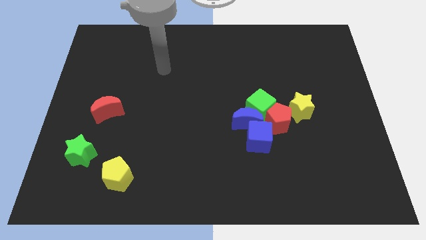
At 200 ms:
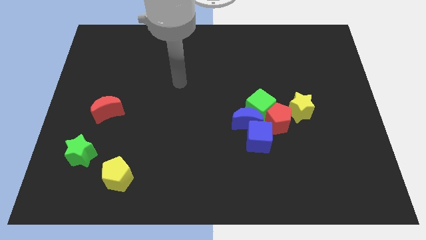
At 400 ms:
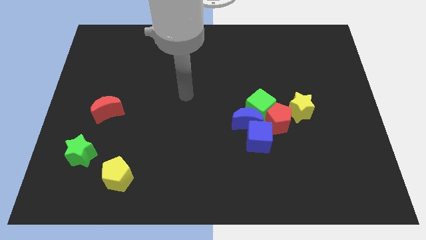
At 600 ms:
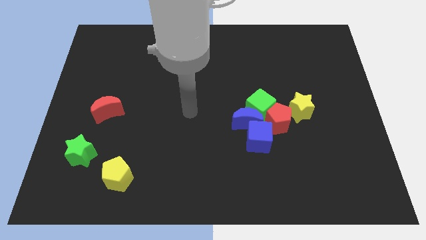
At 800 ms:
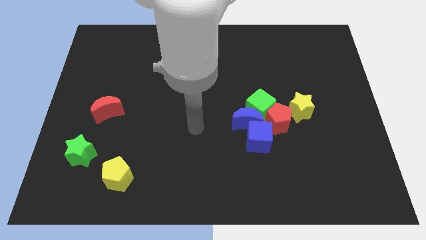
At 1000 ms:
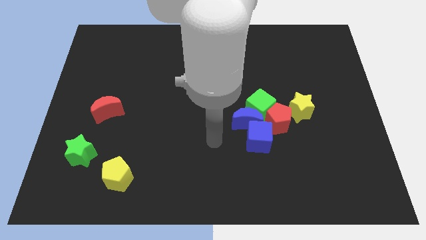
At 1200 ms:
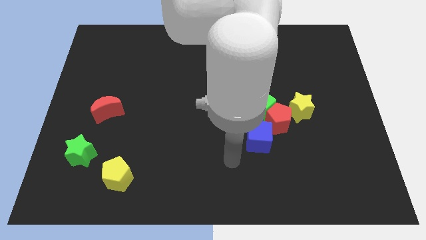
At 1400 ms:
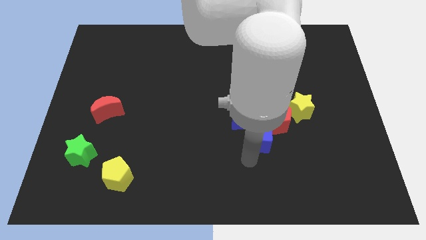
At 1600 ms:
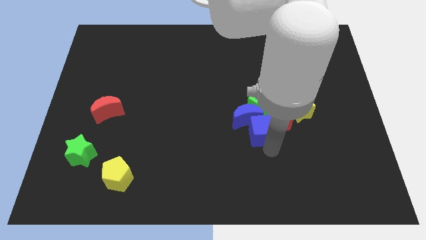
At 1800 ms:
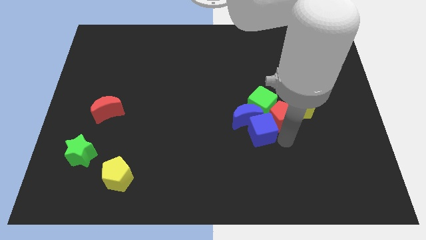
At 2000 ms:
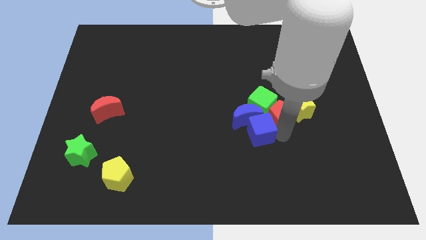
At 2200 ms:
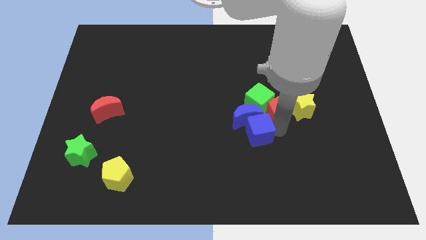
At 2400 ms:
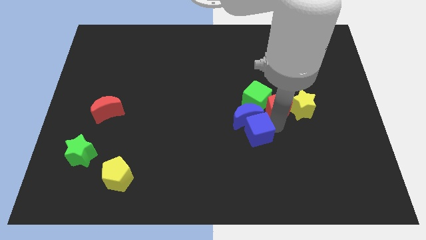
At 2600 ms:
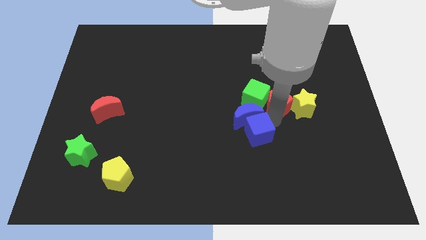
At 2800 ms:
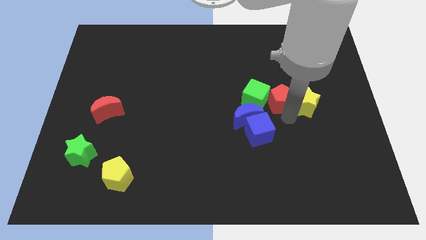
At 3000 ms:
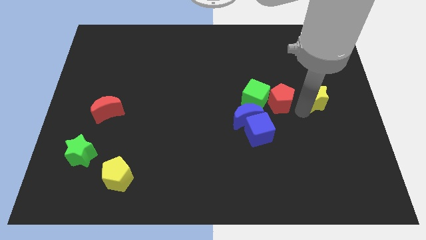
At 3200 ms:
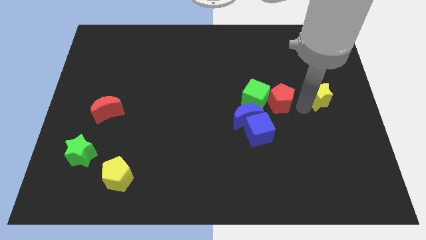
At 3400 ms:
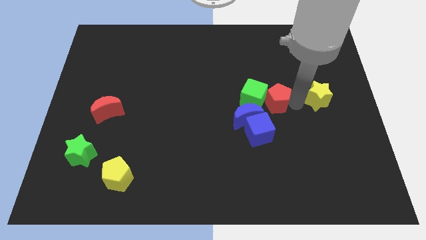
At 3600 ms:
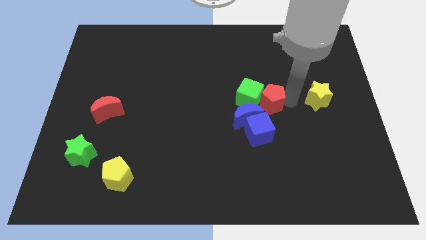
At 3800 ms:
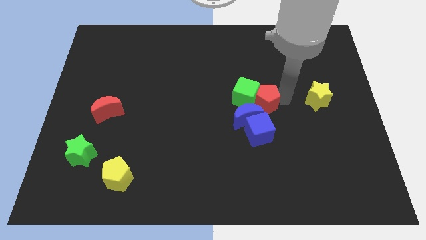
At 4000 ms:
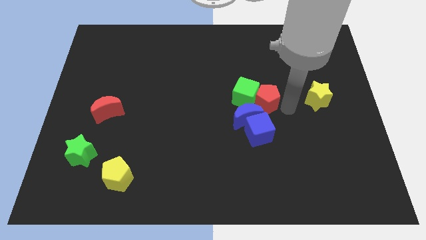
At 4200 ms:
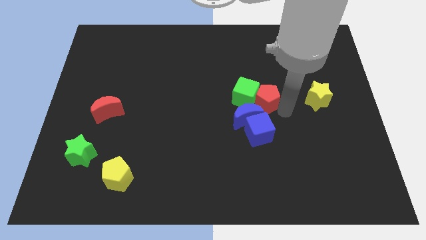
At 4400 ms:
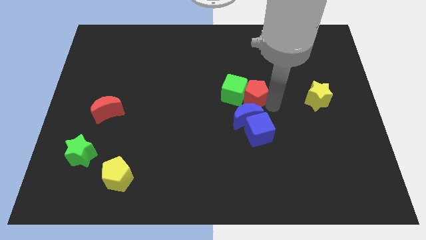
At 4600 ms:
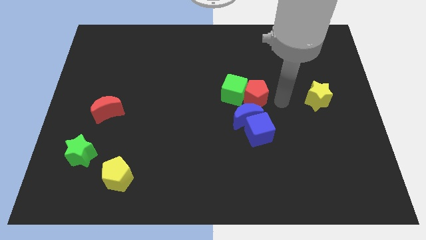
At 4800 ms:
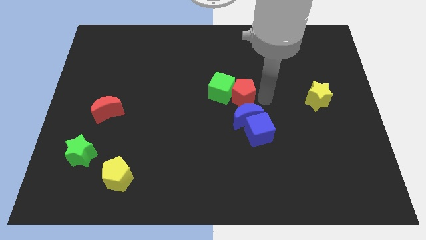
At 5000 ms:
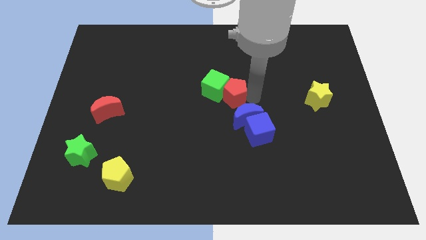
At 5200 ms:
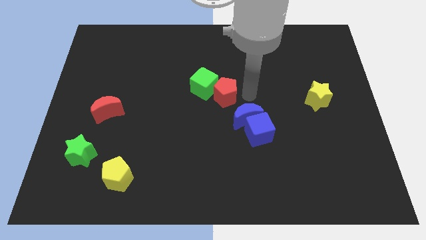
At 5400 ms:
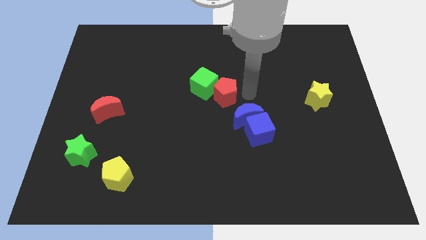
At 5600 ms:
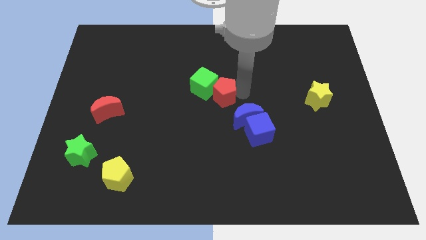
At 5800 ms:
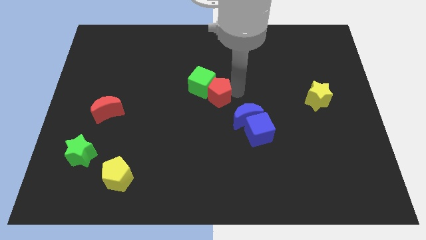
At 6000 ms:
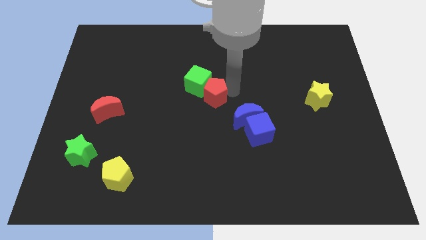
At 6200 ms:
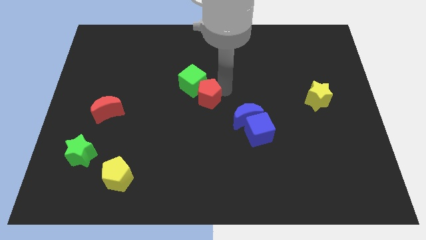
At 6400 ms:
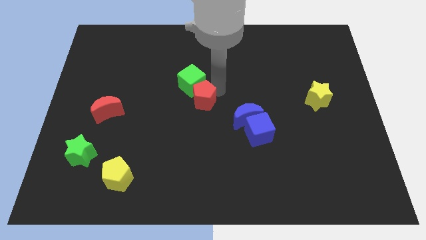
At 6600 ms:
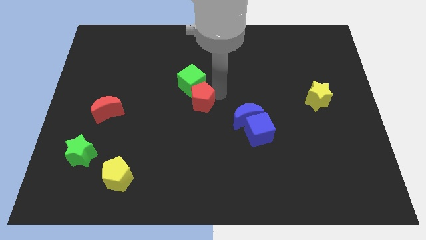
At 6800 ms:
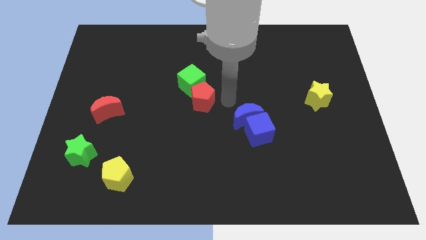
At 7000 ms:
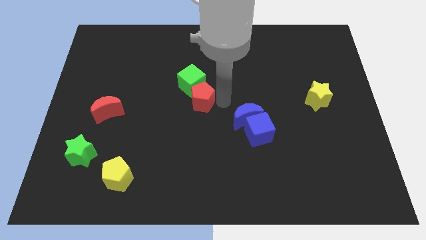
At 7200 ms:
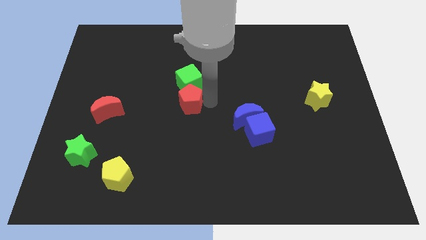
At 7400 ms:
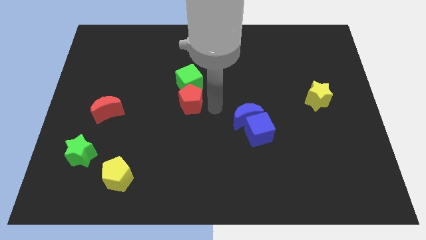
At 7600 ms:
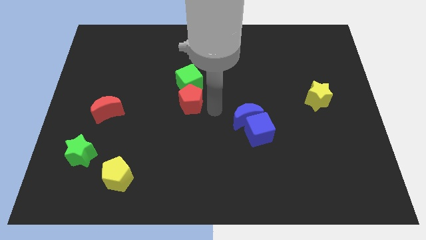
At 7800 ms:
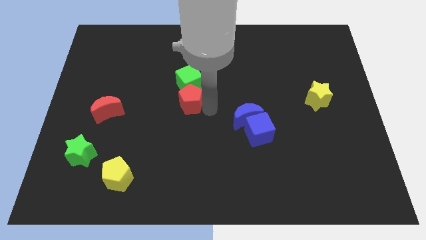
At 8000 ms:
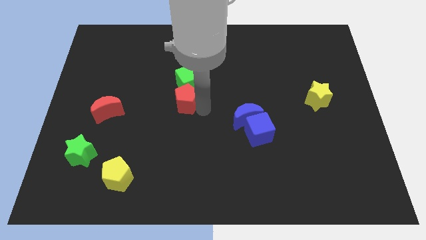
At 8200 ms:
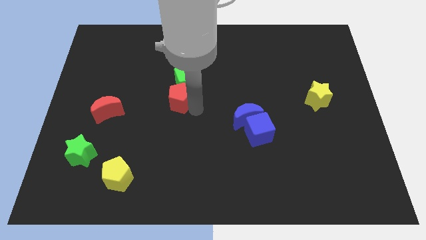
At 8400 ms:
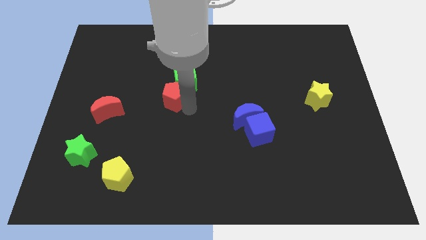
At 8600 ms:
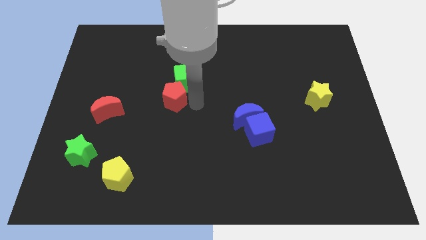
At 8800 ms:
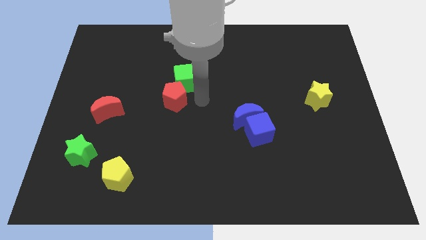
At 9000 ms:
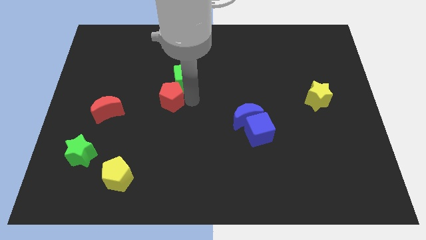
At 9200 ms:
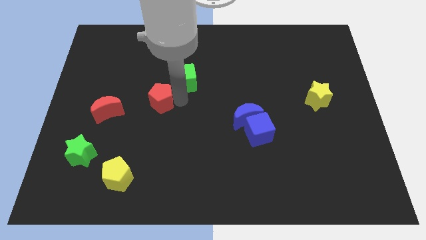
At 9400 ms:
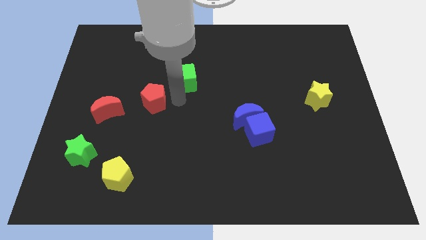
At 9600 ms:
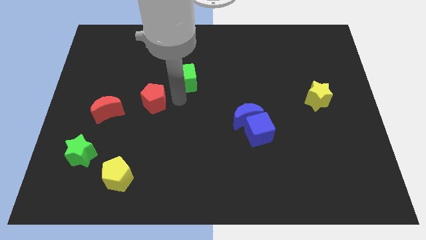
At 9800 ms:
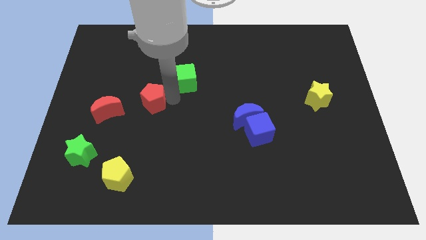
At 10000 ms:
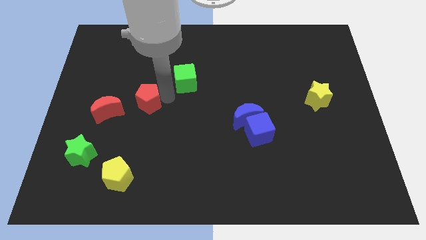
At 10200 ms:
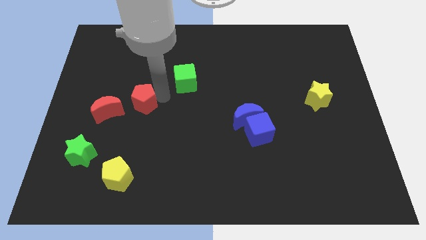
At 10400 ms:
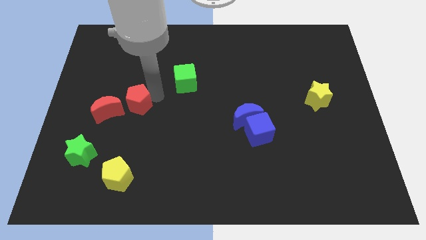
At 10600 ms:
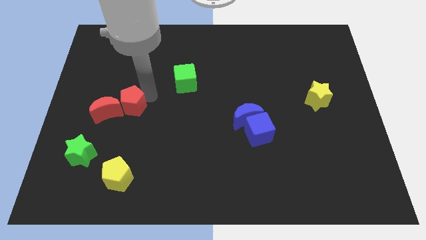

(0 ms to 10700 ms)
slide the red pentagon next to the red moon

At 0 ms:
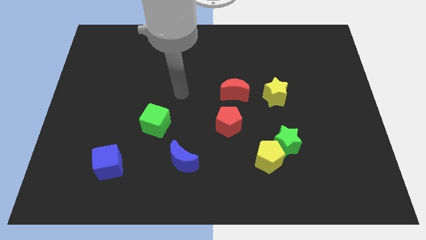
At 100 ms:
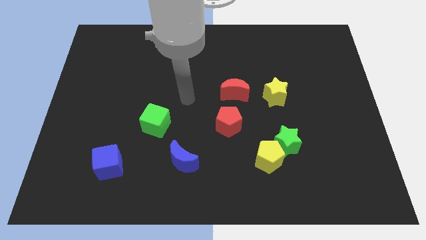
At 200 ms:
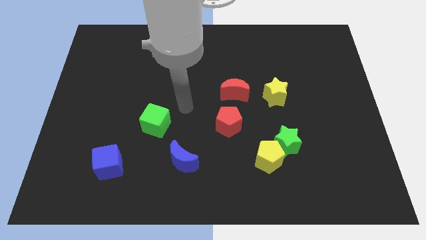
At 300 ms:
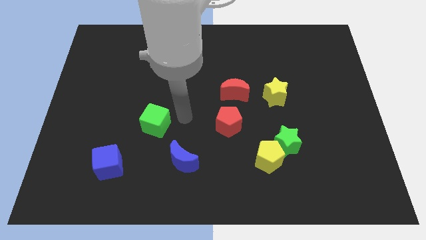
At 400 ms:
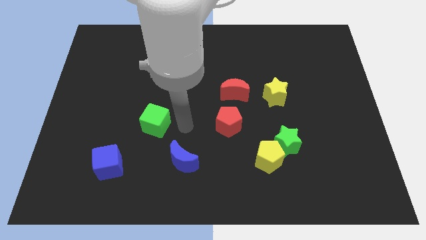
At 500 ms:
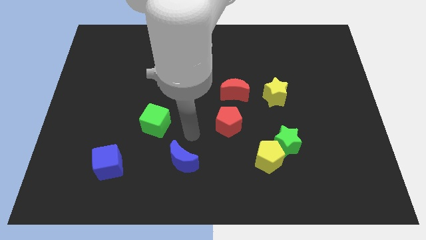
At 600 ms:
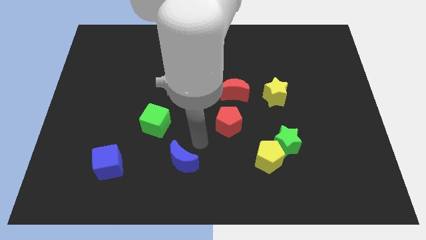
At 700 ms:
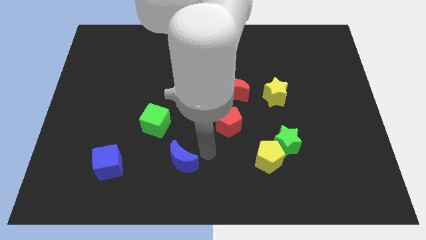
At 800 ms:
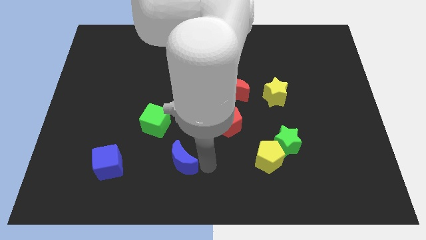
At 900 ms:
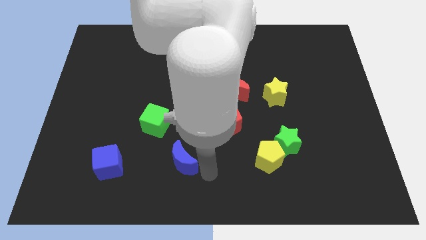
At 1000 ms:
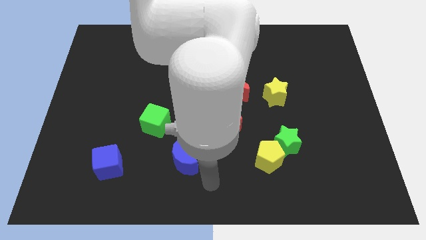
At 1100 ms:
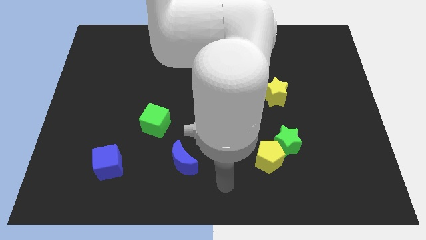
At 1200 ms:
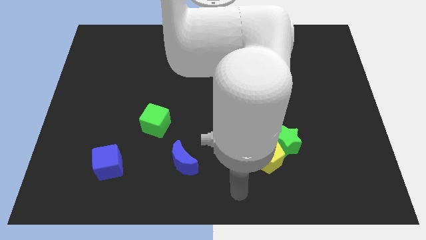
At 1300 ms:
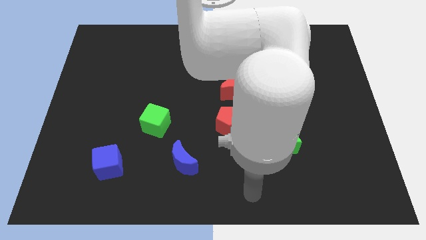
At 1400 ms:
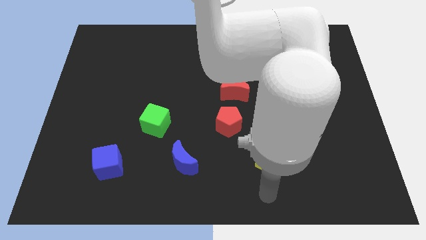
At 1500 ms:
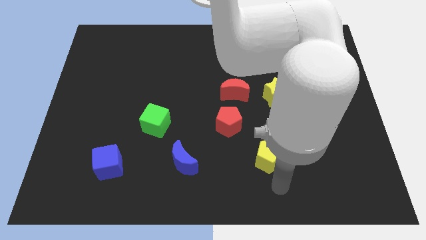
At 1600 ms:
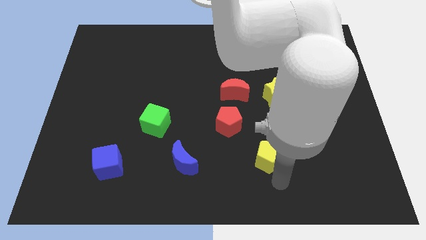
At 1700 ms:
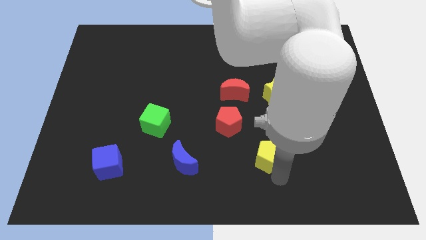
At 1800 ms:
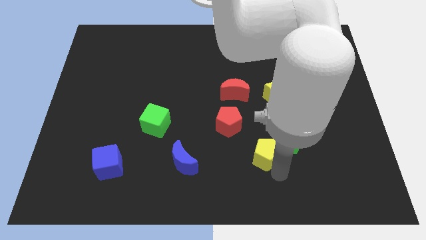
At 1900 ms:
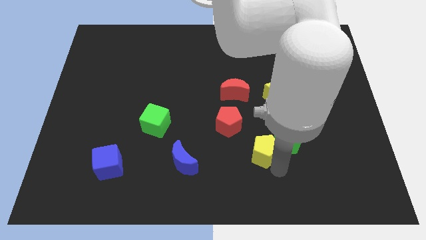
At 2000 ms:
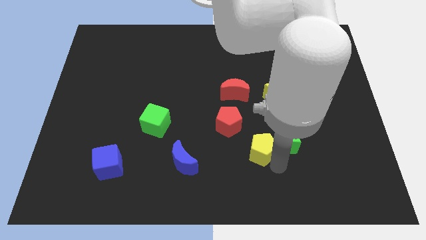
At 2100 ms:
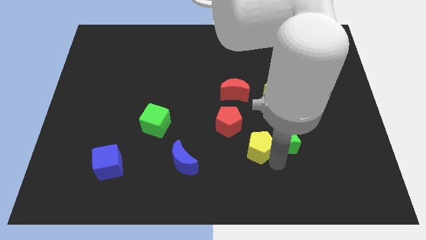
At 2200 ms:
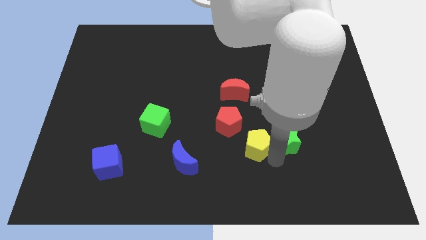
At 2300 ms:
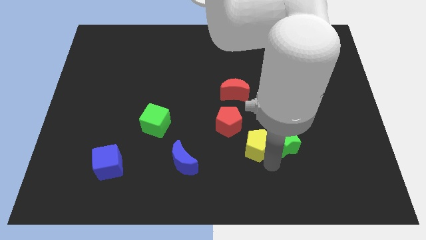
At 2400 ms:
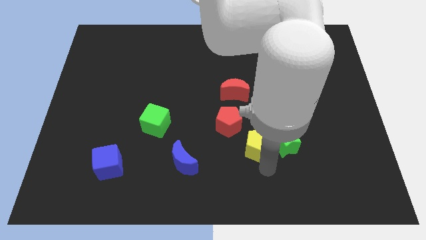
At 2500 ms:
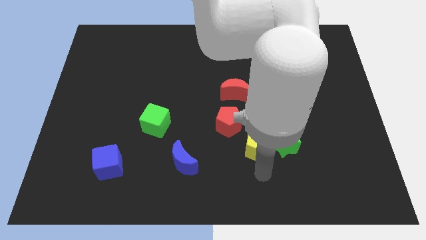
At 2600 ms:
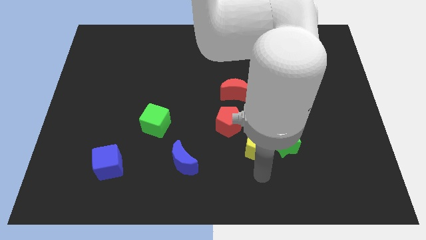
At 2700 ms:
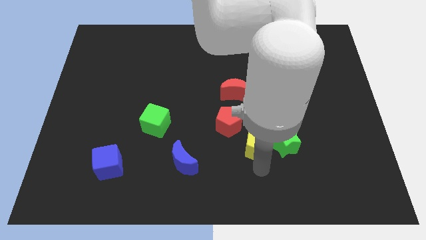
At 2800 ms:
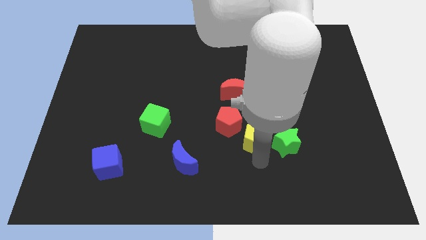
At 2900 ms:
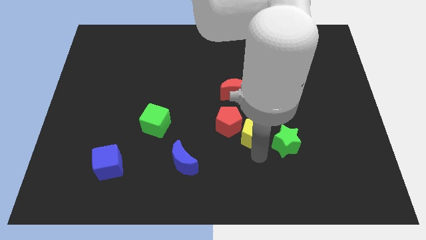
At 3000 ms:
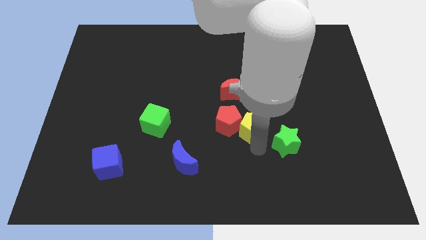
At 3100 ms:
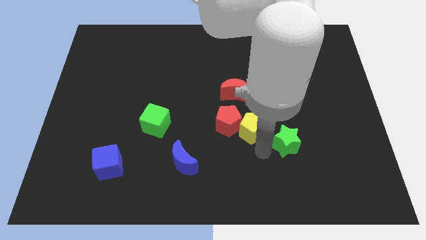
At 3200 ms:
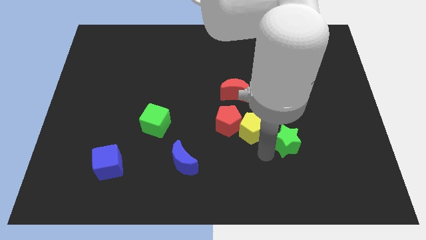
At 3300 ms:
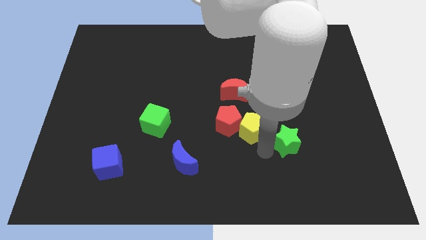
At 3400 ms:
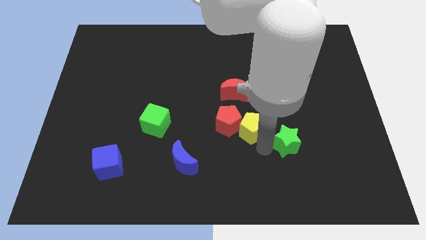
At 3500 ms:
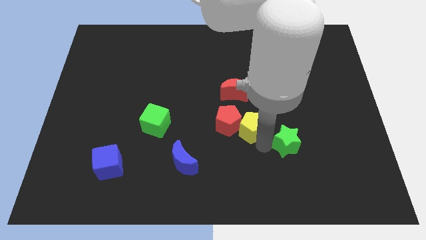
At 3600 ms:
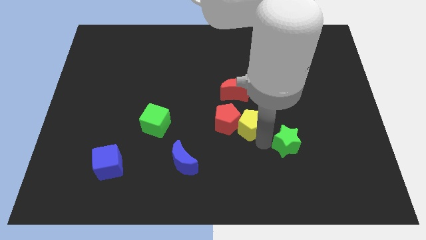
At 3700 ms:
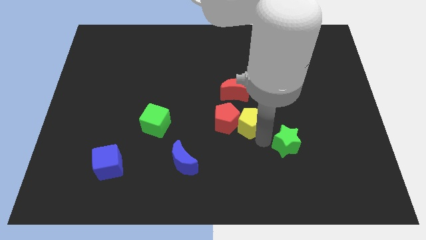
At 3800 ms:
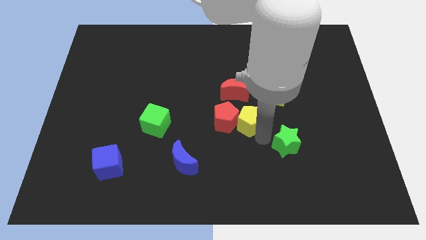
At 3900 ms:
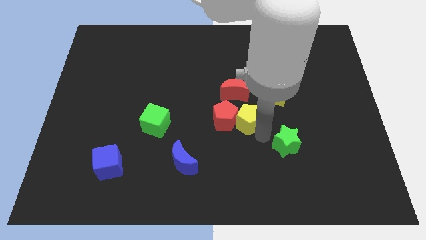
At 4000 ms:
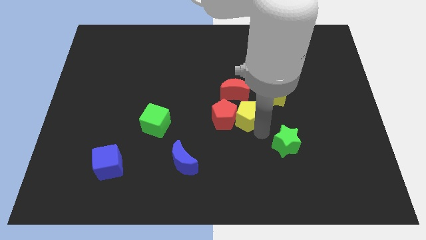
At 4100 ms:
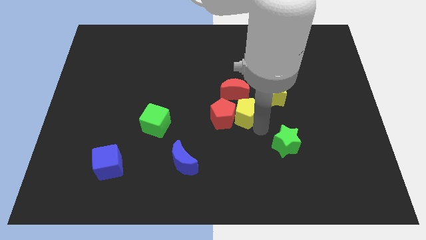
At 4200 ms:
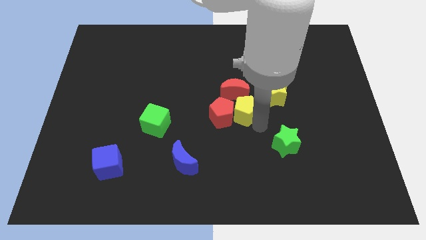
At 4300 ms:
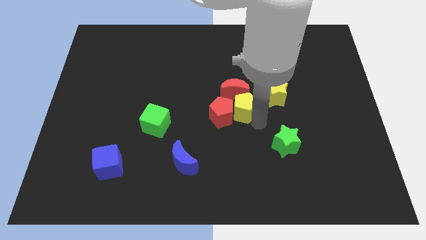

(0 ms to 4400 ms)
slide the yellow pentagon towards the red moon
